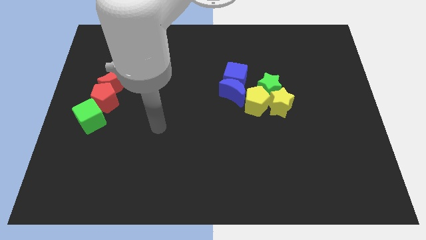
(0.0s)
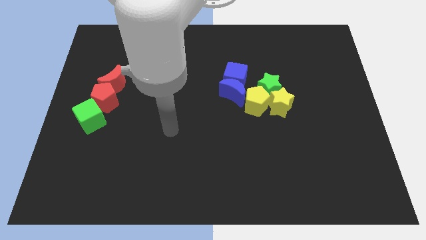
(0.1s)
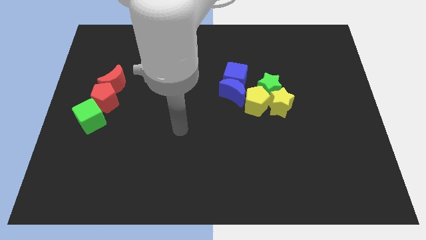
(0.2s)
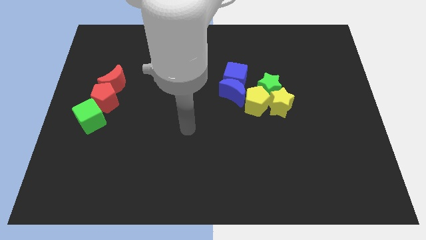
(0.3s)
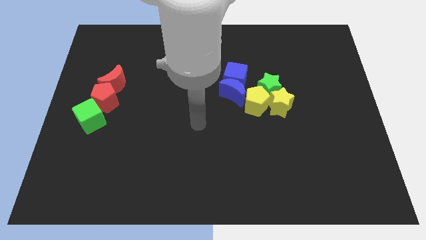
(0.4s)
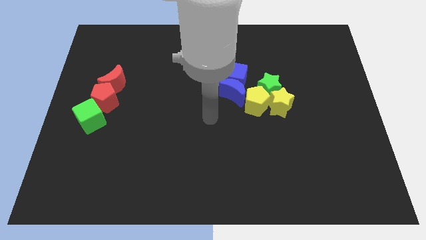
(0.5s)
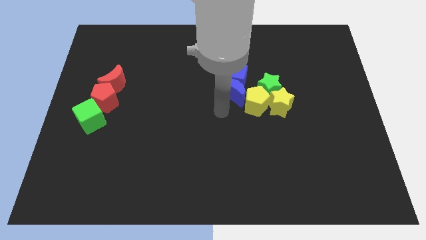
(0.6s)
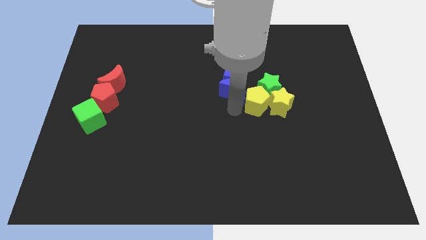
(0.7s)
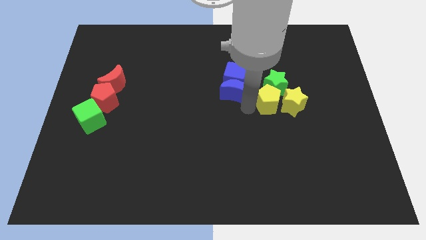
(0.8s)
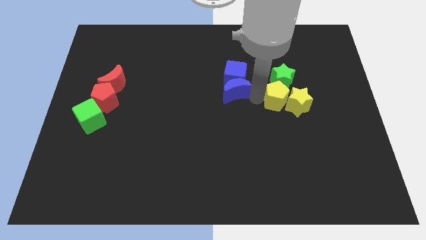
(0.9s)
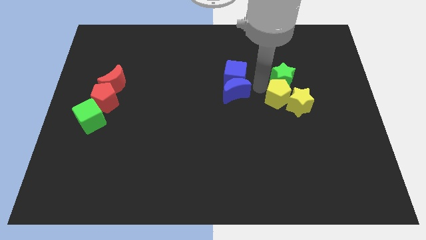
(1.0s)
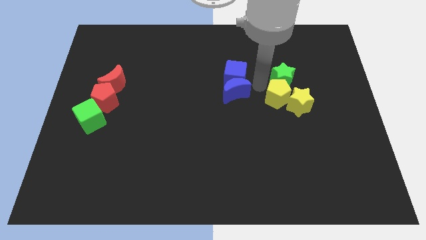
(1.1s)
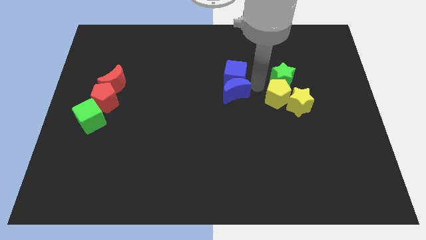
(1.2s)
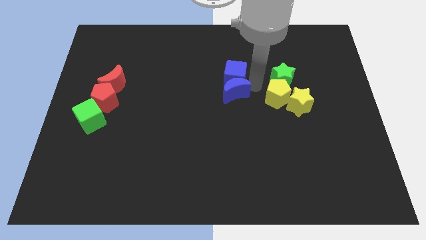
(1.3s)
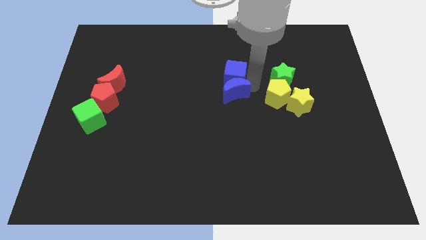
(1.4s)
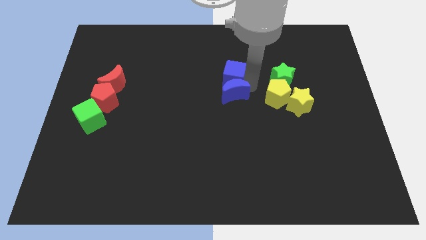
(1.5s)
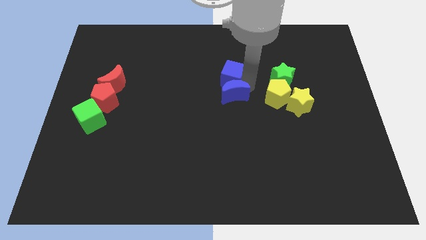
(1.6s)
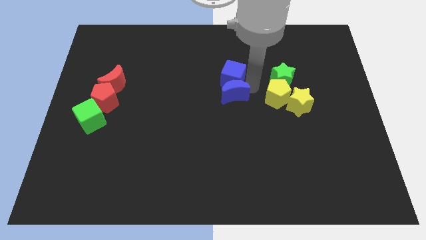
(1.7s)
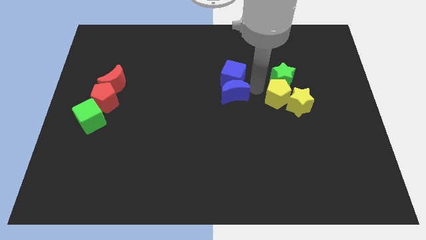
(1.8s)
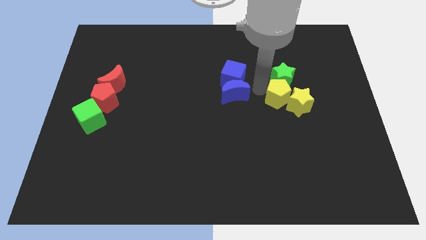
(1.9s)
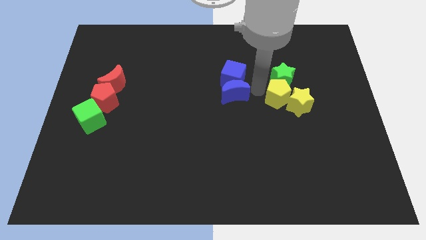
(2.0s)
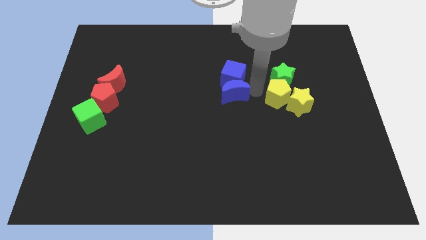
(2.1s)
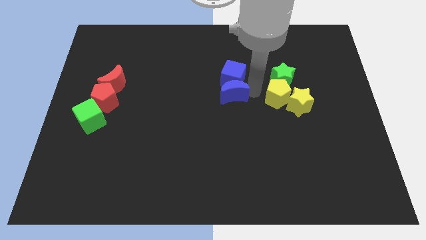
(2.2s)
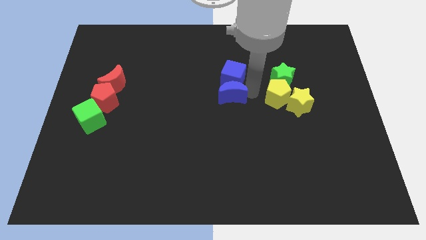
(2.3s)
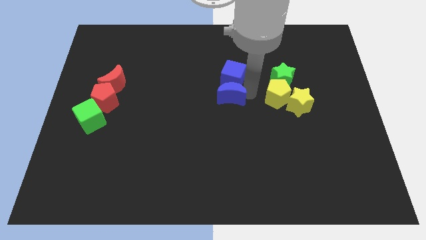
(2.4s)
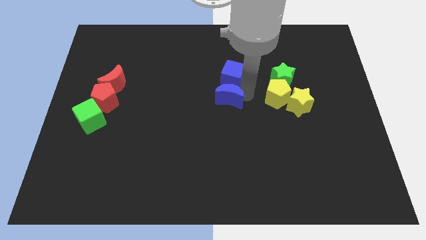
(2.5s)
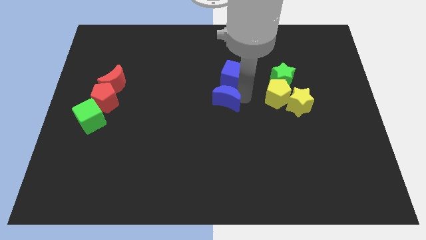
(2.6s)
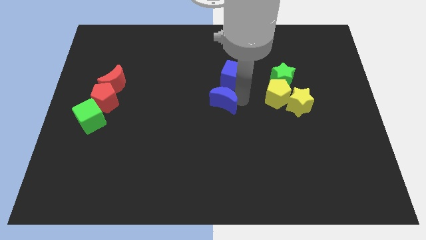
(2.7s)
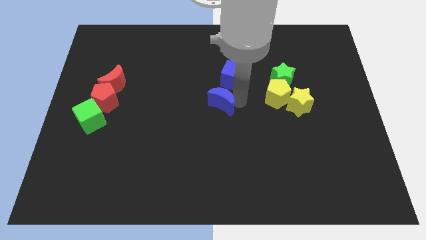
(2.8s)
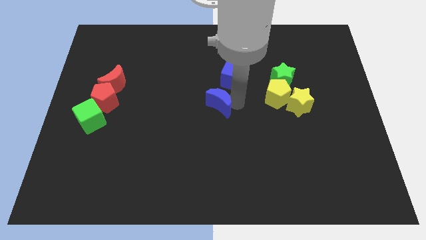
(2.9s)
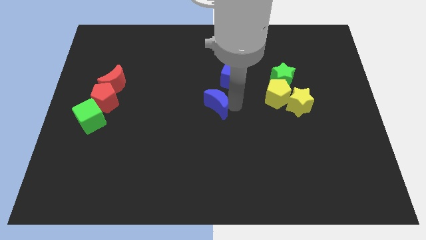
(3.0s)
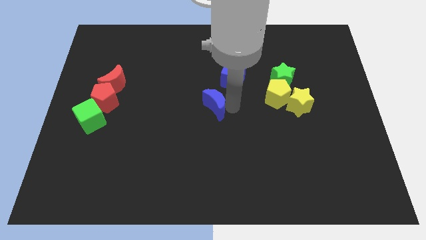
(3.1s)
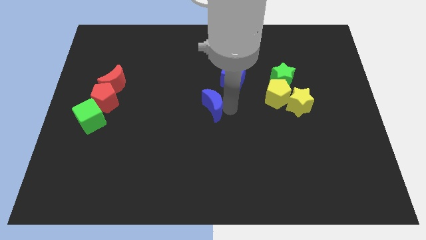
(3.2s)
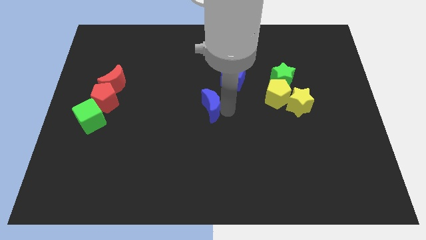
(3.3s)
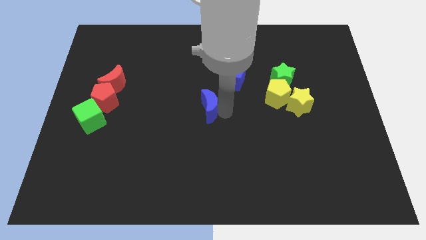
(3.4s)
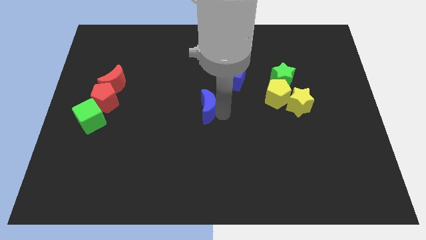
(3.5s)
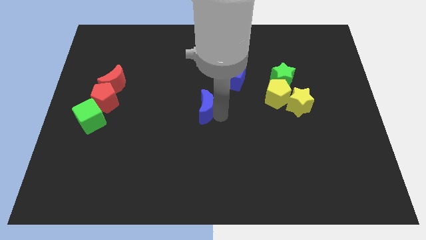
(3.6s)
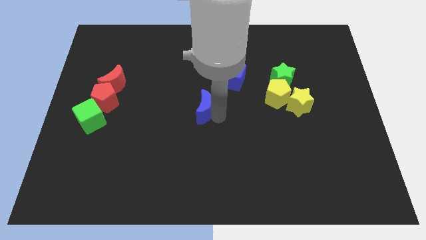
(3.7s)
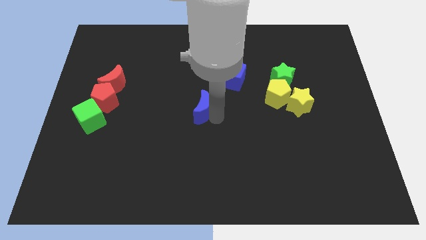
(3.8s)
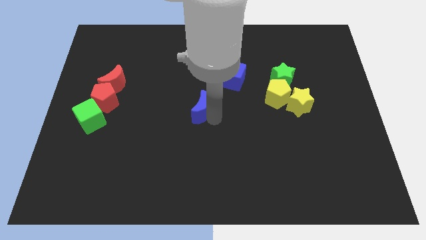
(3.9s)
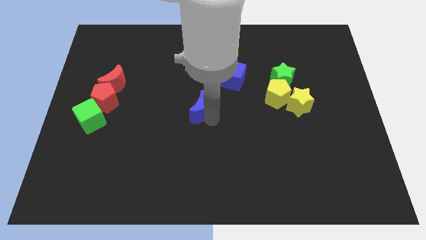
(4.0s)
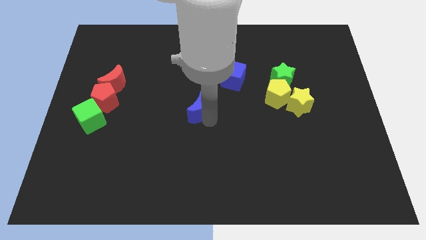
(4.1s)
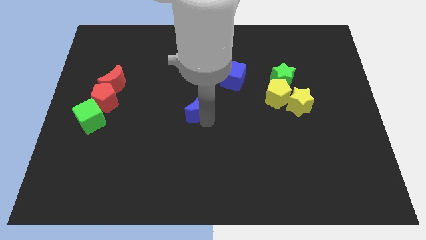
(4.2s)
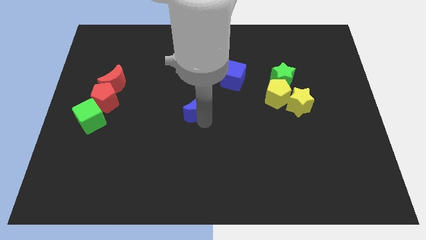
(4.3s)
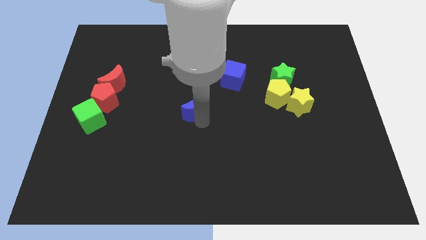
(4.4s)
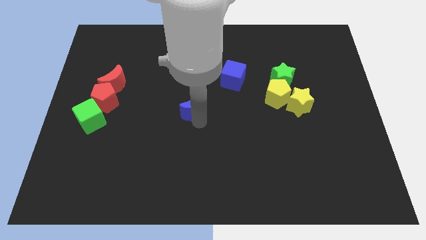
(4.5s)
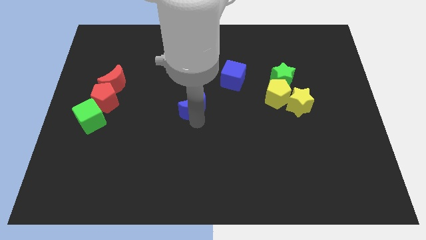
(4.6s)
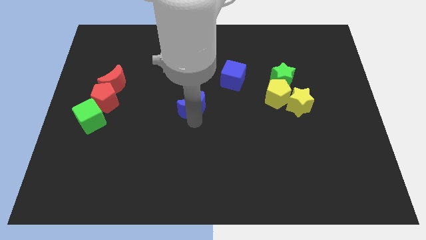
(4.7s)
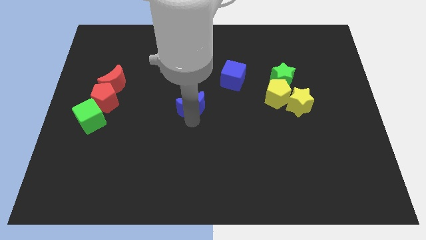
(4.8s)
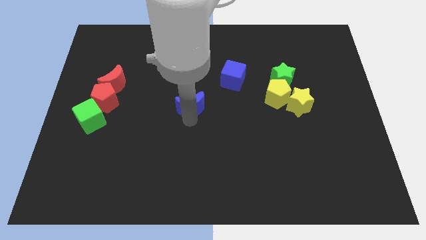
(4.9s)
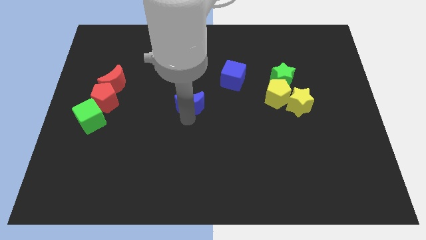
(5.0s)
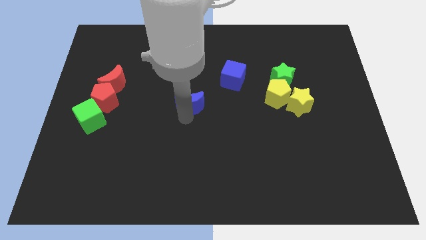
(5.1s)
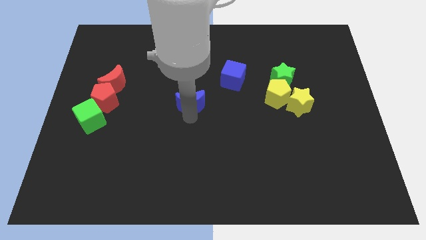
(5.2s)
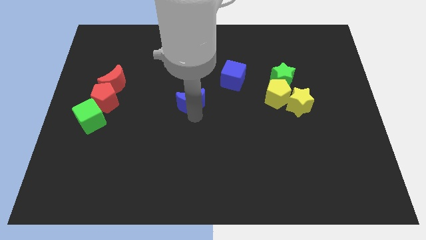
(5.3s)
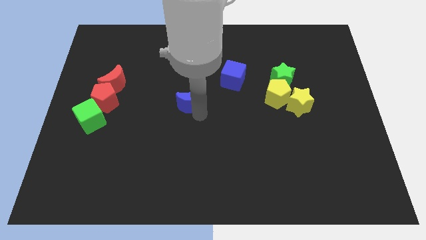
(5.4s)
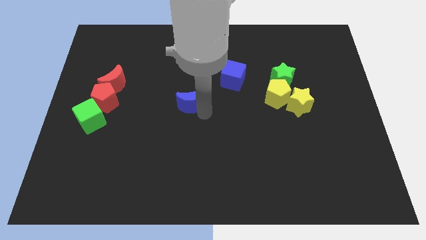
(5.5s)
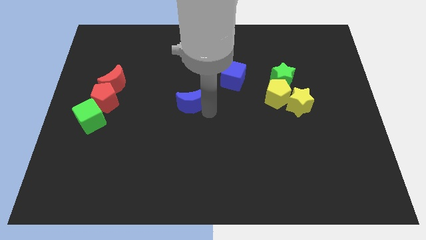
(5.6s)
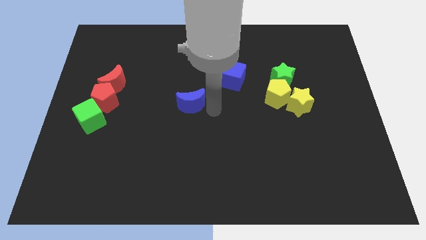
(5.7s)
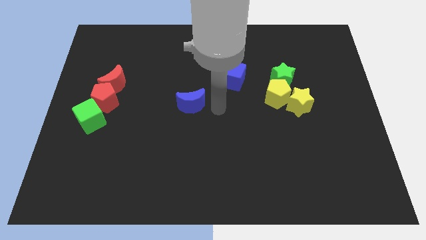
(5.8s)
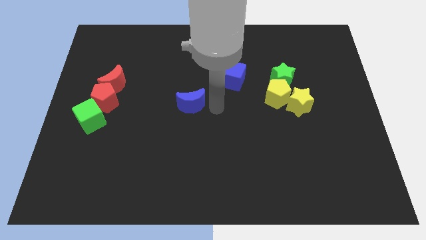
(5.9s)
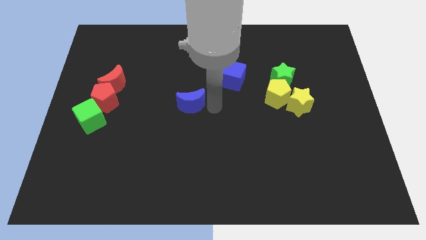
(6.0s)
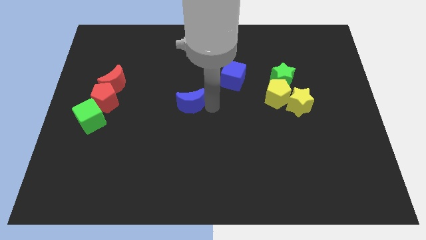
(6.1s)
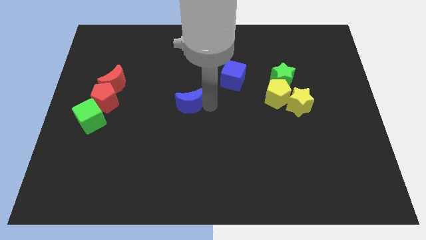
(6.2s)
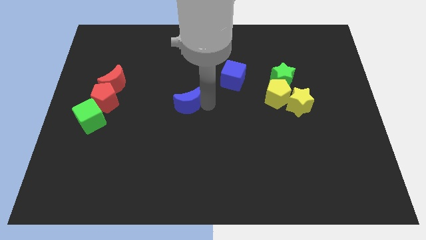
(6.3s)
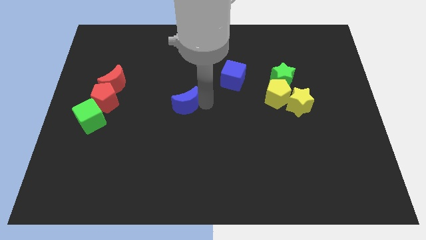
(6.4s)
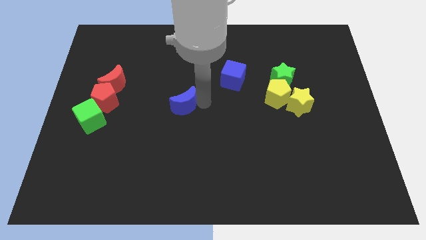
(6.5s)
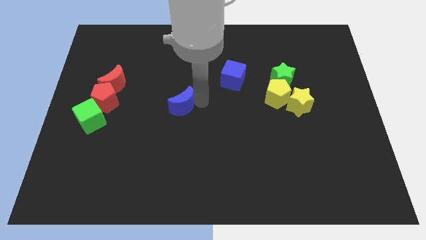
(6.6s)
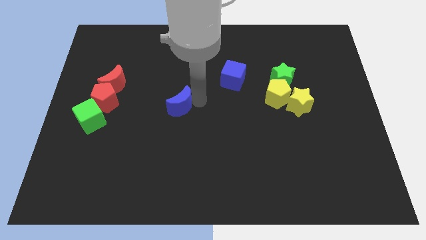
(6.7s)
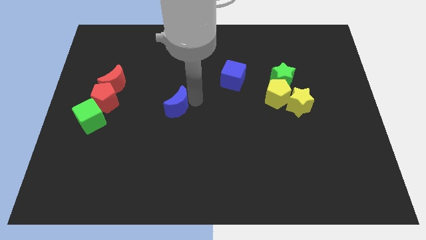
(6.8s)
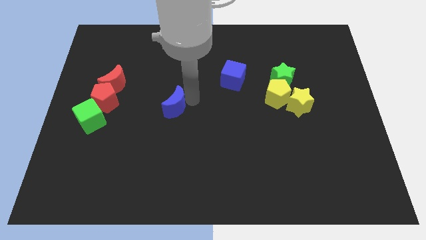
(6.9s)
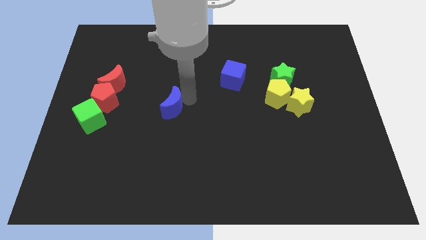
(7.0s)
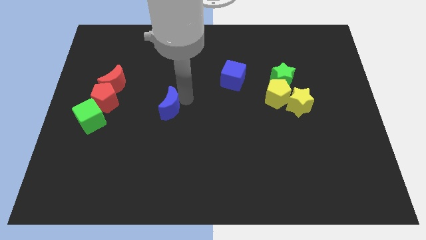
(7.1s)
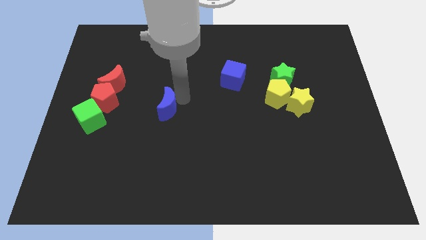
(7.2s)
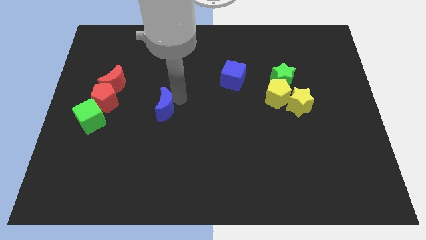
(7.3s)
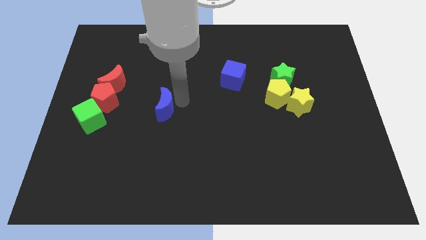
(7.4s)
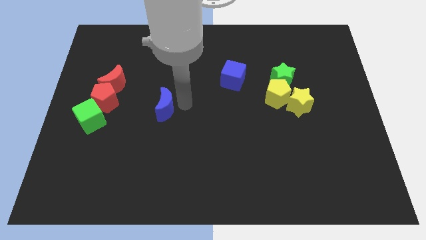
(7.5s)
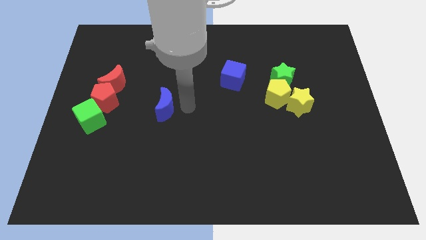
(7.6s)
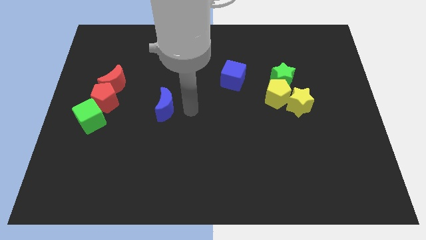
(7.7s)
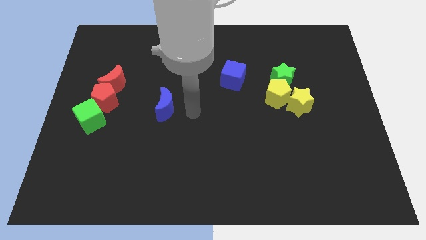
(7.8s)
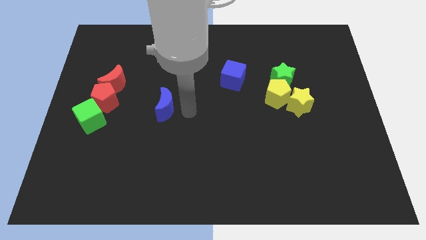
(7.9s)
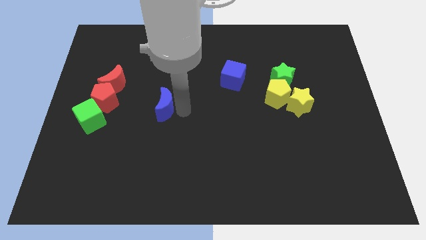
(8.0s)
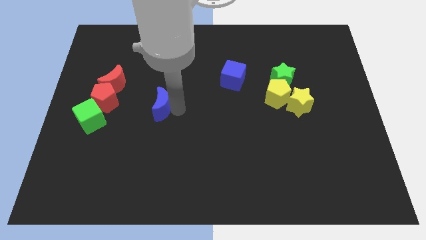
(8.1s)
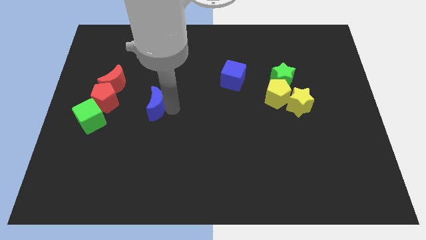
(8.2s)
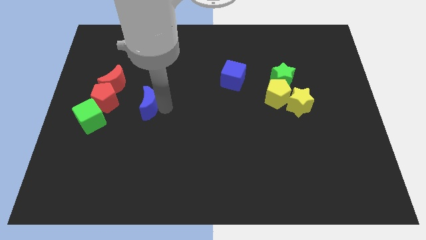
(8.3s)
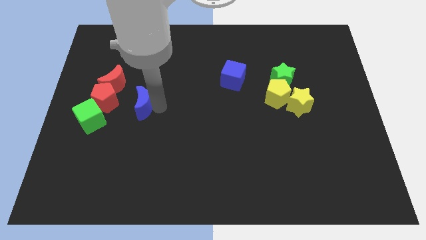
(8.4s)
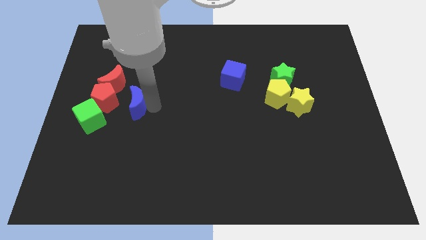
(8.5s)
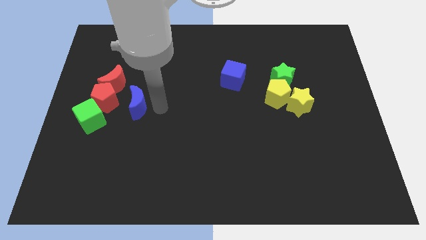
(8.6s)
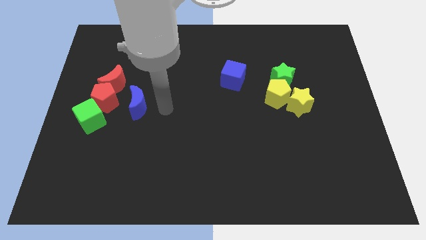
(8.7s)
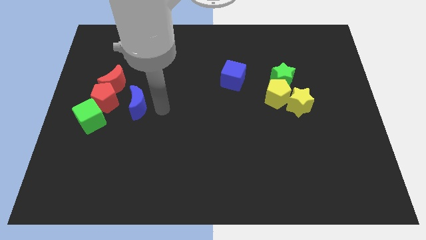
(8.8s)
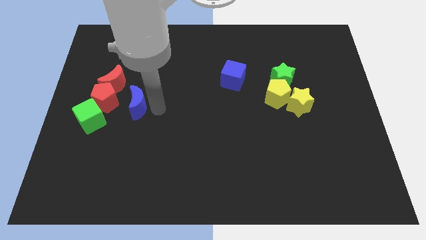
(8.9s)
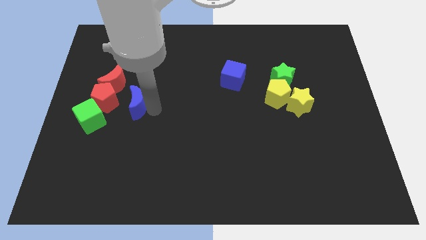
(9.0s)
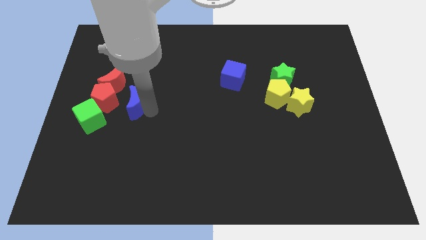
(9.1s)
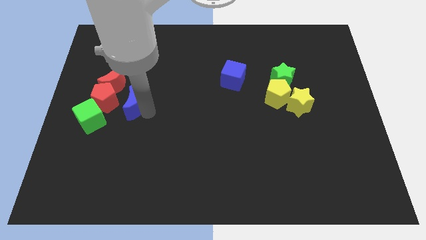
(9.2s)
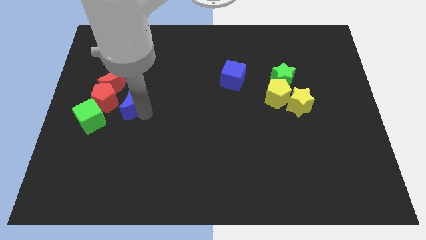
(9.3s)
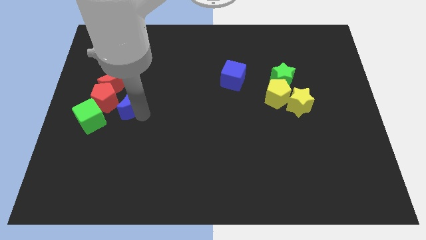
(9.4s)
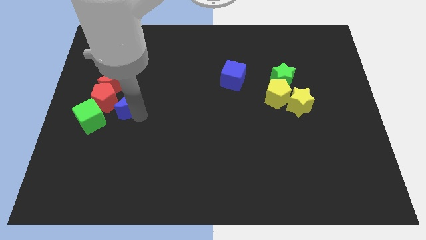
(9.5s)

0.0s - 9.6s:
slide the blue moon next to the red pentagon
